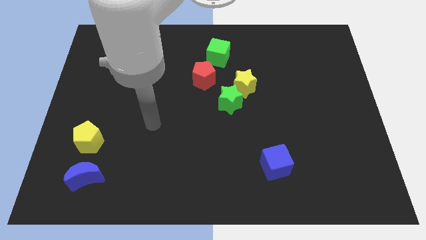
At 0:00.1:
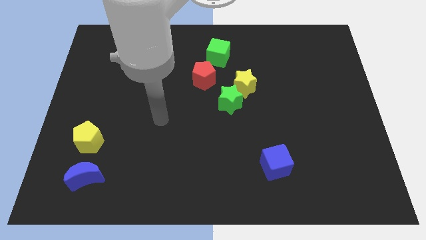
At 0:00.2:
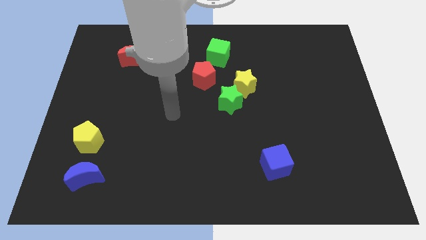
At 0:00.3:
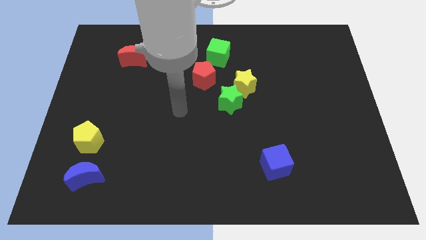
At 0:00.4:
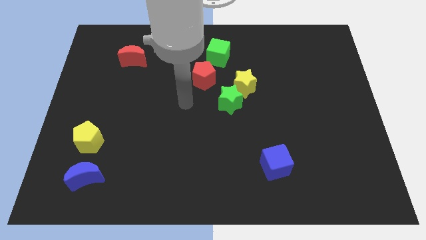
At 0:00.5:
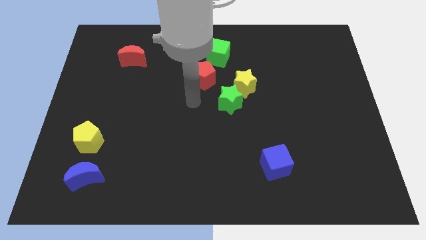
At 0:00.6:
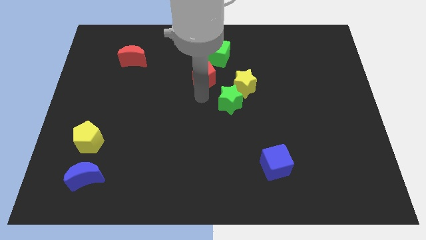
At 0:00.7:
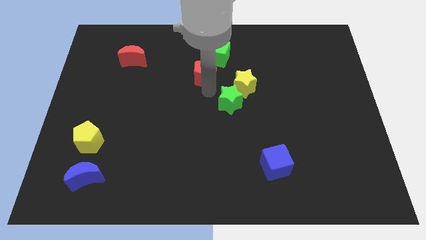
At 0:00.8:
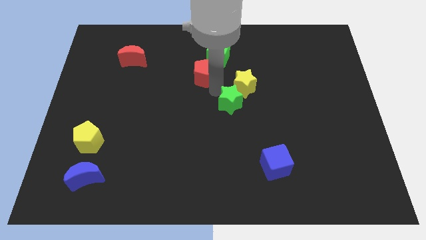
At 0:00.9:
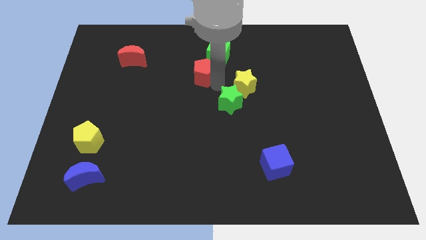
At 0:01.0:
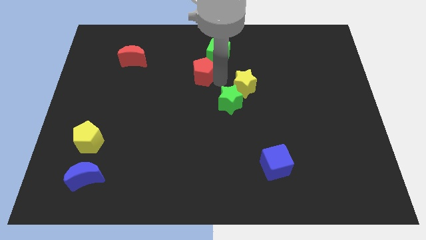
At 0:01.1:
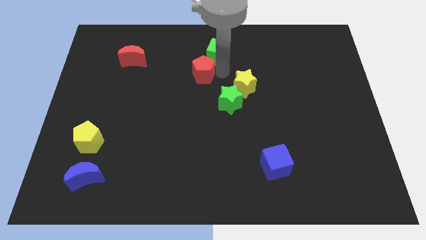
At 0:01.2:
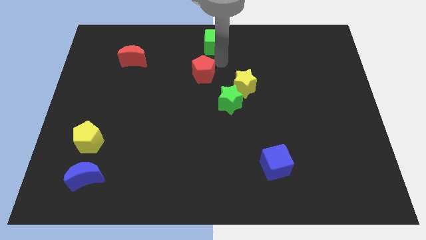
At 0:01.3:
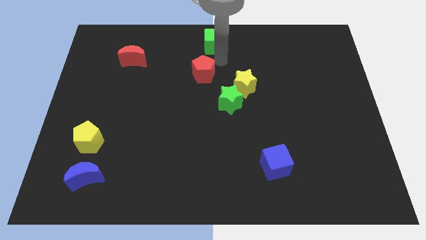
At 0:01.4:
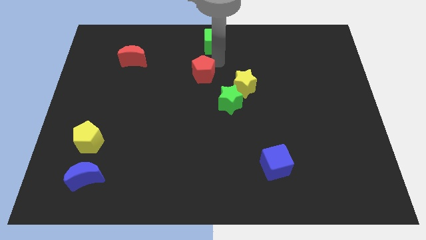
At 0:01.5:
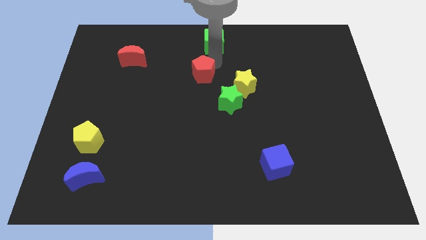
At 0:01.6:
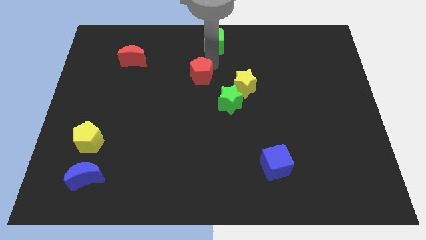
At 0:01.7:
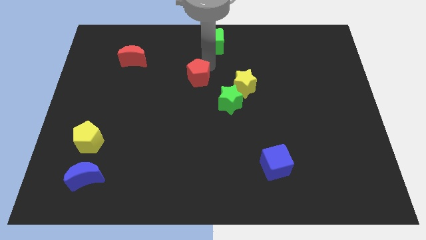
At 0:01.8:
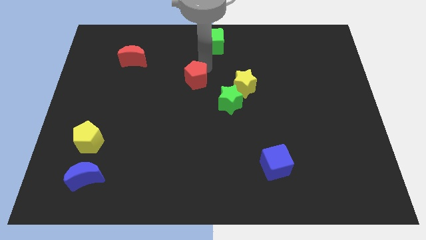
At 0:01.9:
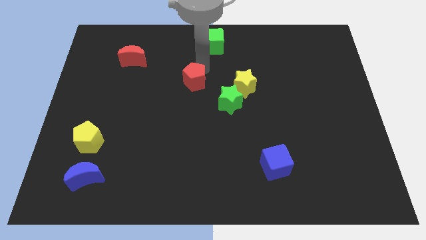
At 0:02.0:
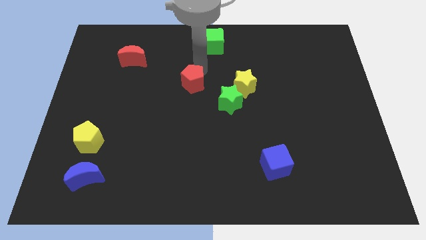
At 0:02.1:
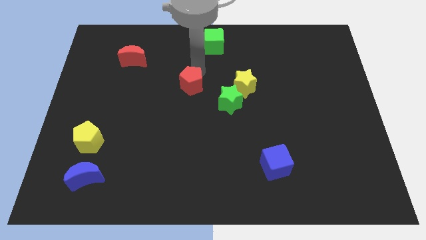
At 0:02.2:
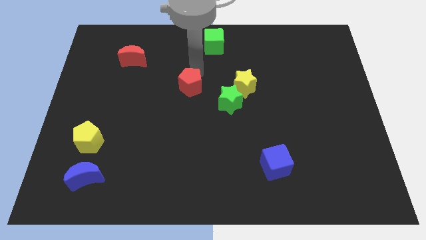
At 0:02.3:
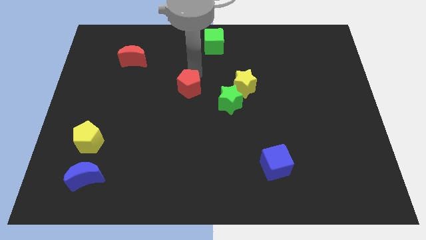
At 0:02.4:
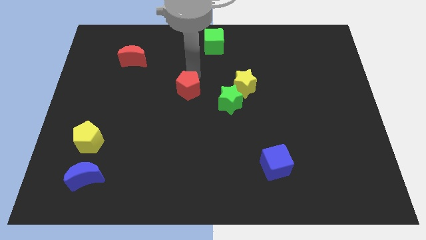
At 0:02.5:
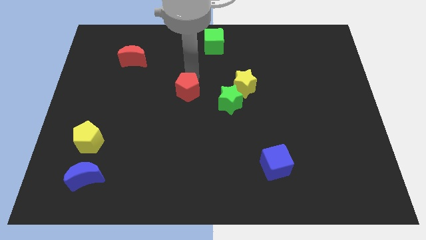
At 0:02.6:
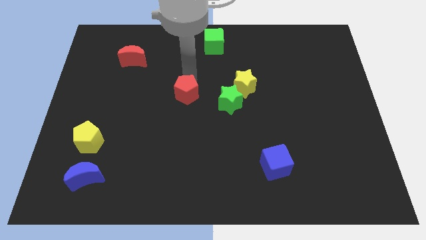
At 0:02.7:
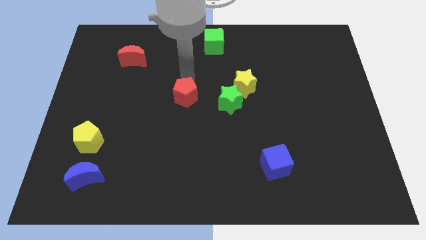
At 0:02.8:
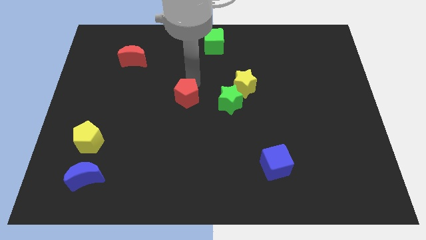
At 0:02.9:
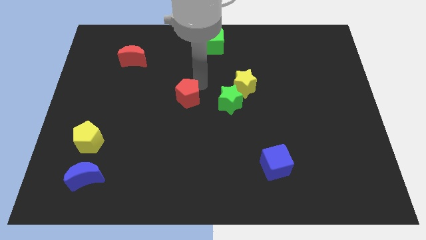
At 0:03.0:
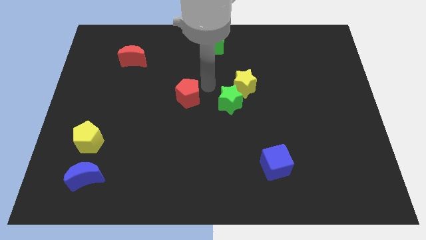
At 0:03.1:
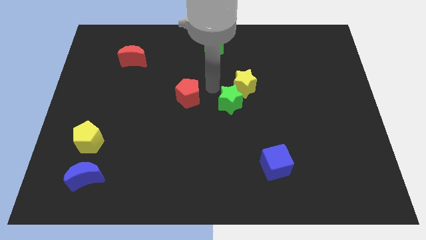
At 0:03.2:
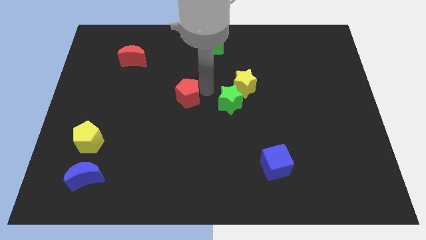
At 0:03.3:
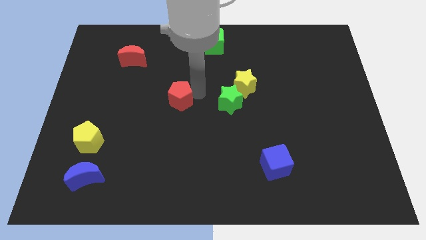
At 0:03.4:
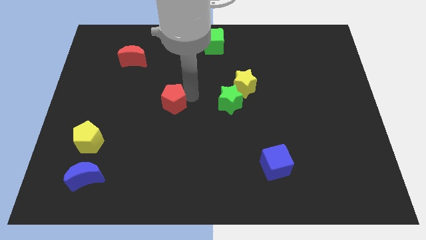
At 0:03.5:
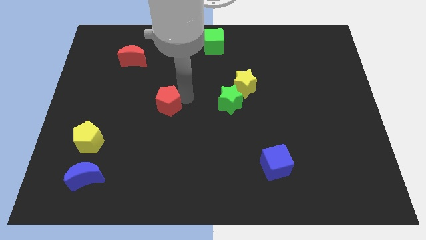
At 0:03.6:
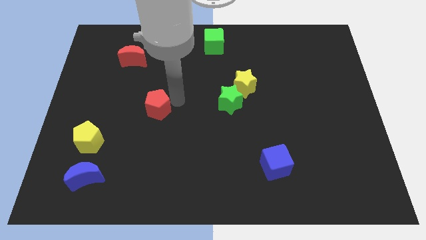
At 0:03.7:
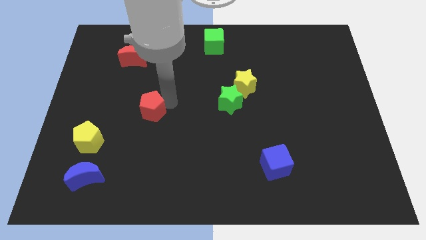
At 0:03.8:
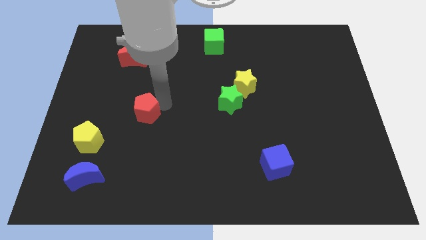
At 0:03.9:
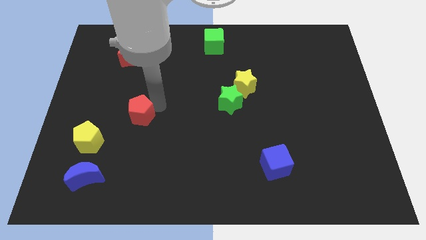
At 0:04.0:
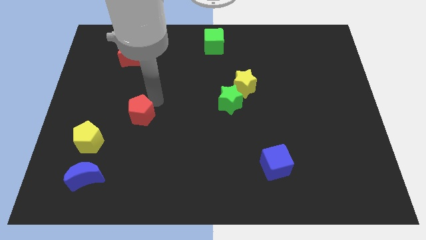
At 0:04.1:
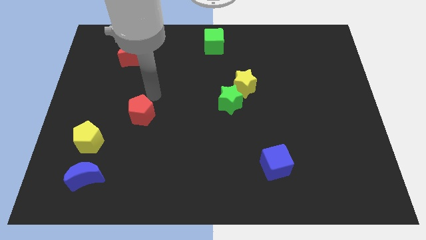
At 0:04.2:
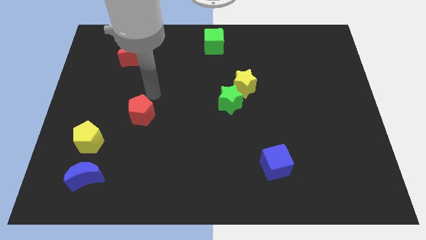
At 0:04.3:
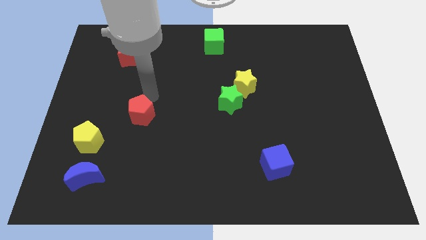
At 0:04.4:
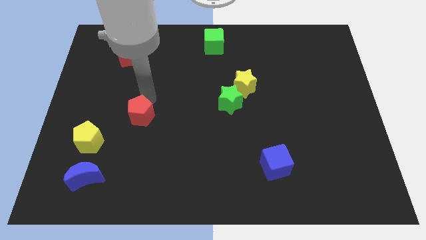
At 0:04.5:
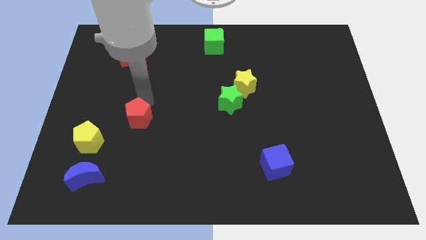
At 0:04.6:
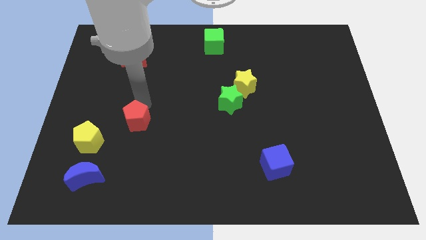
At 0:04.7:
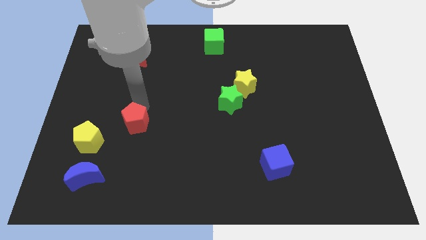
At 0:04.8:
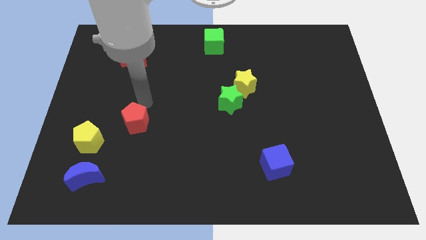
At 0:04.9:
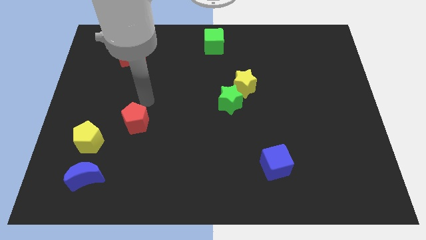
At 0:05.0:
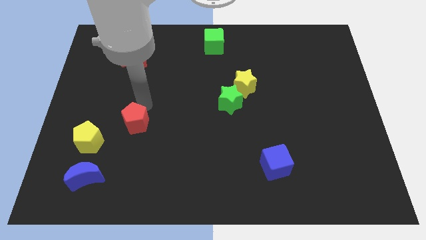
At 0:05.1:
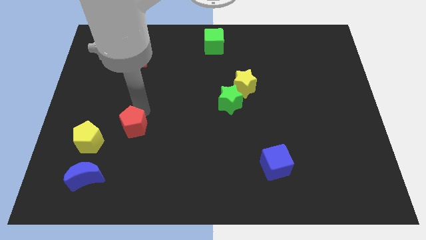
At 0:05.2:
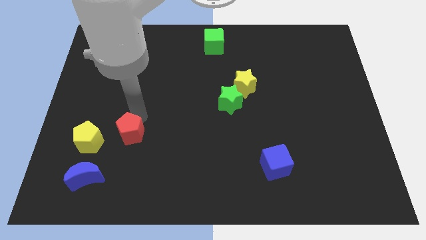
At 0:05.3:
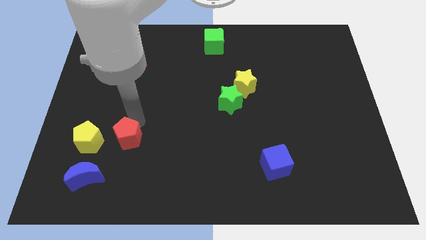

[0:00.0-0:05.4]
move the red pentagon to the top right side of the blue moon

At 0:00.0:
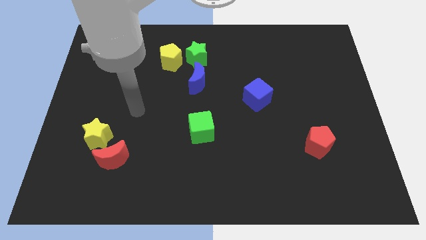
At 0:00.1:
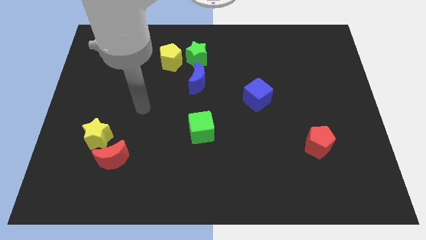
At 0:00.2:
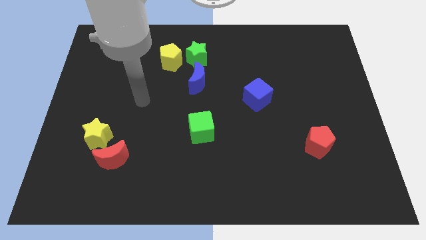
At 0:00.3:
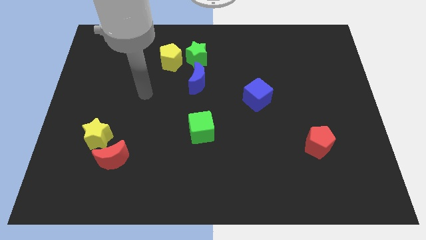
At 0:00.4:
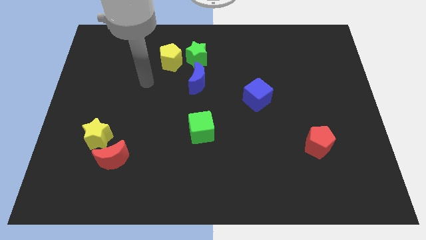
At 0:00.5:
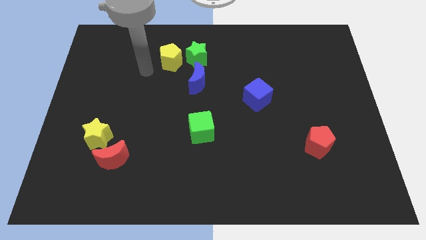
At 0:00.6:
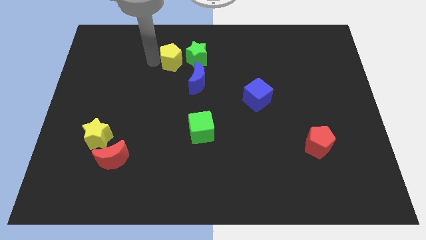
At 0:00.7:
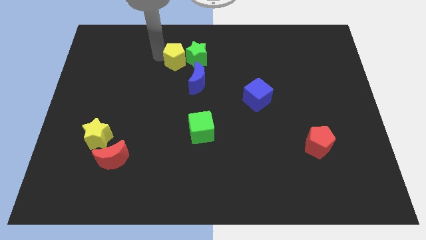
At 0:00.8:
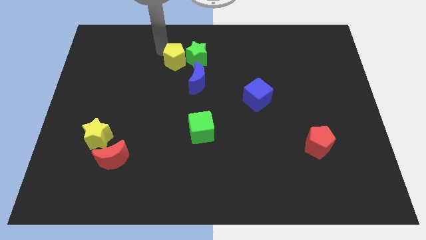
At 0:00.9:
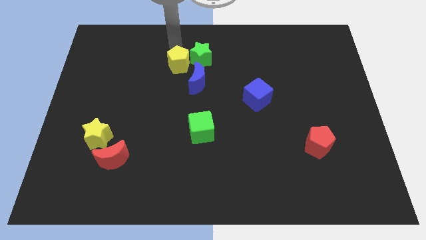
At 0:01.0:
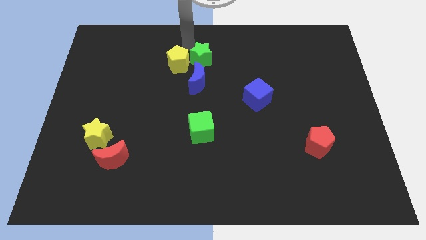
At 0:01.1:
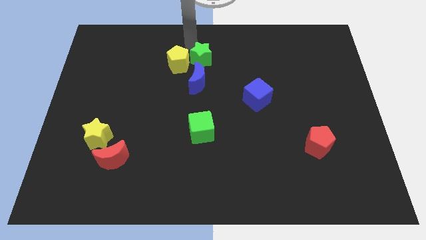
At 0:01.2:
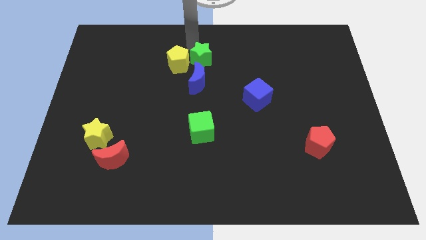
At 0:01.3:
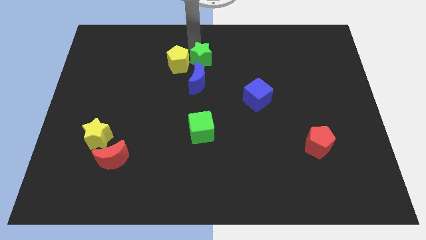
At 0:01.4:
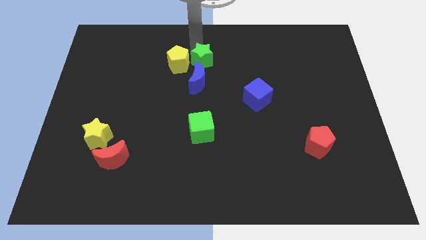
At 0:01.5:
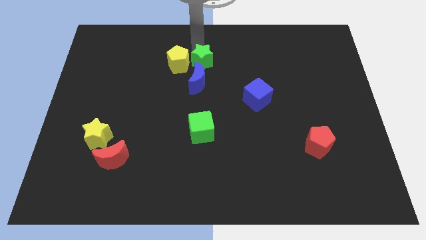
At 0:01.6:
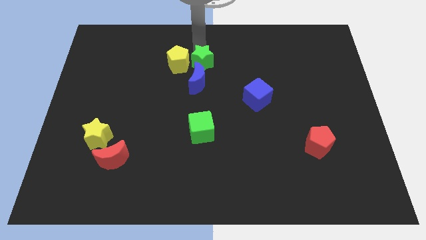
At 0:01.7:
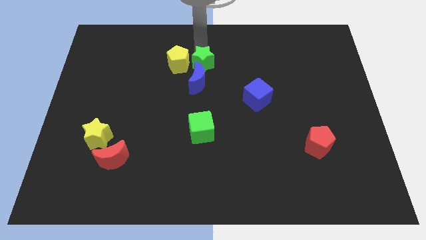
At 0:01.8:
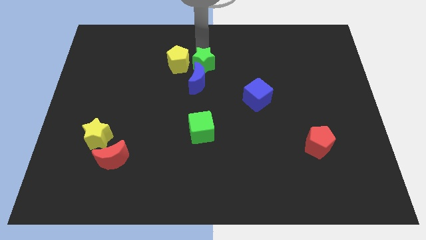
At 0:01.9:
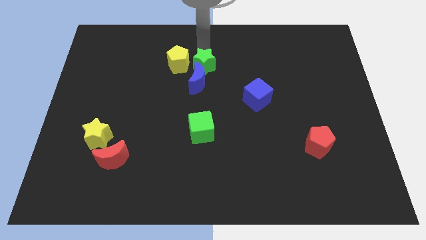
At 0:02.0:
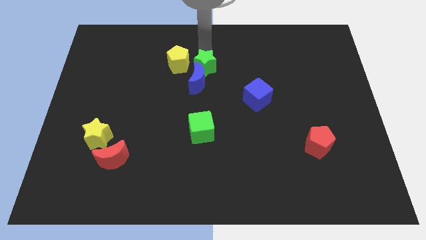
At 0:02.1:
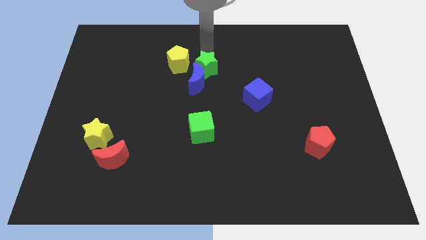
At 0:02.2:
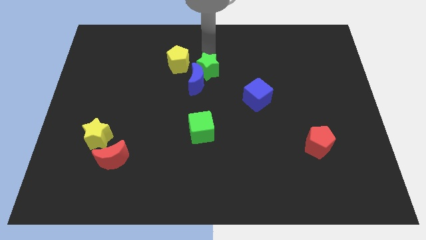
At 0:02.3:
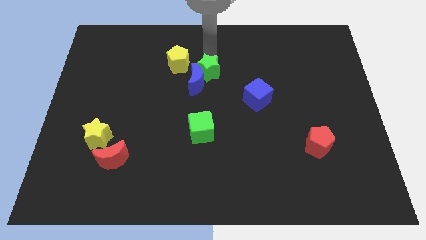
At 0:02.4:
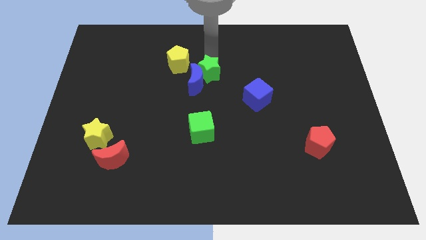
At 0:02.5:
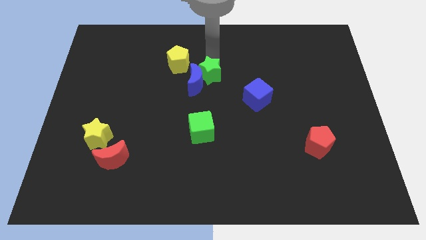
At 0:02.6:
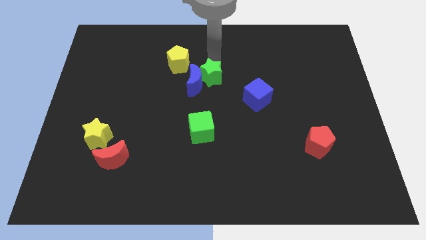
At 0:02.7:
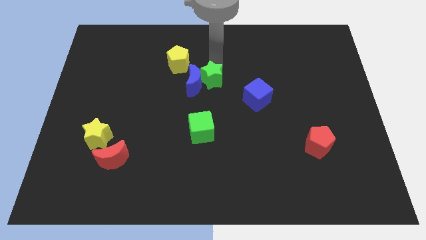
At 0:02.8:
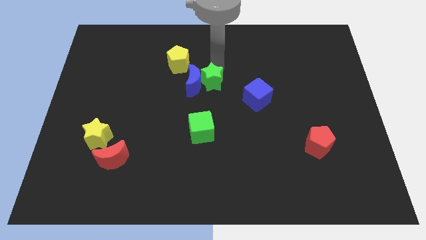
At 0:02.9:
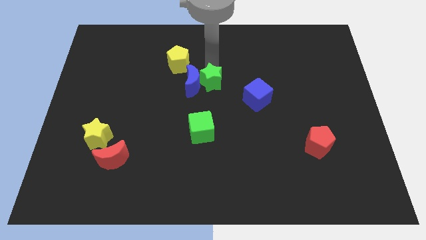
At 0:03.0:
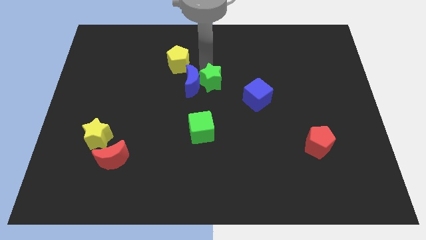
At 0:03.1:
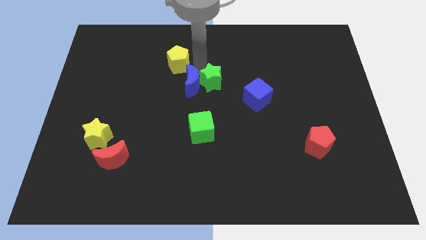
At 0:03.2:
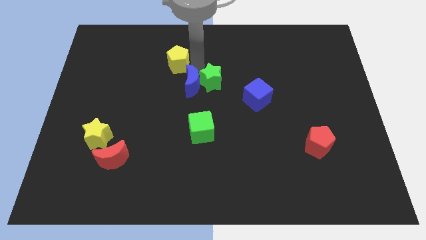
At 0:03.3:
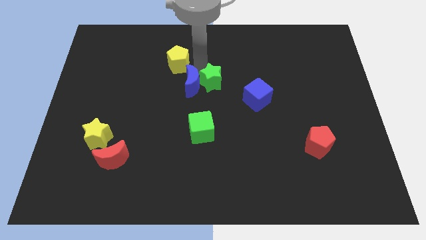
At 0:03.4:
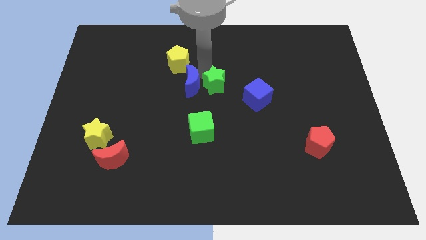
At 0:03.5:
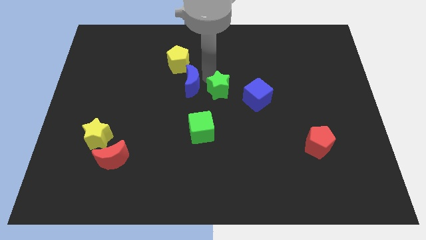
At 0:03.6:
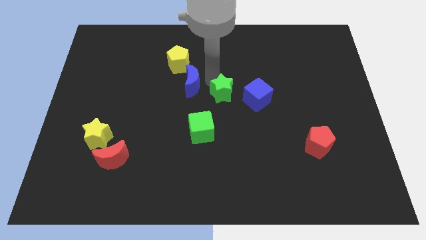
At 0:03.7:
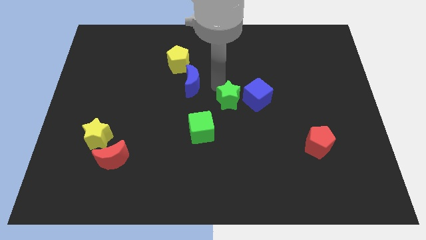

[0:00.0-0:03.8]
put the green star to the bottom left side of the blue cube
